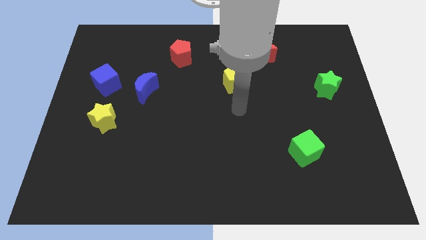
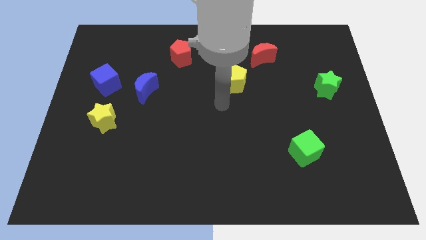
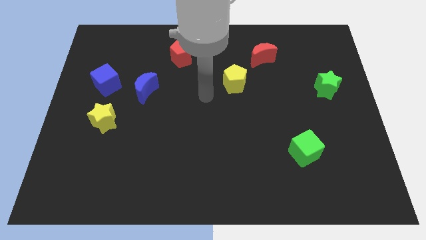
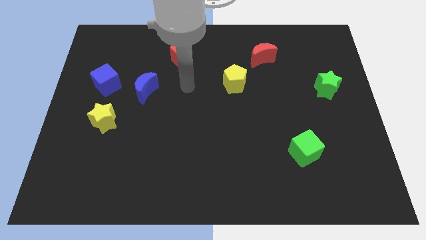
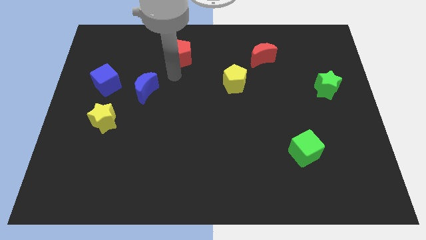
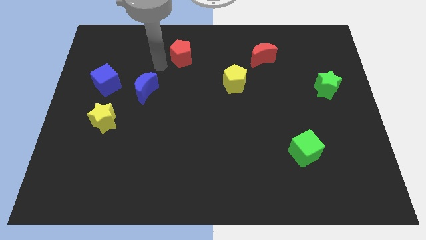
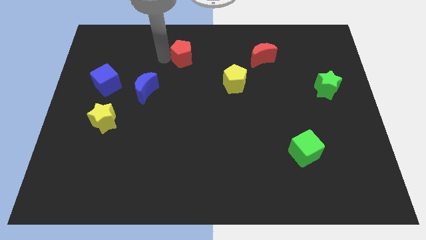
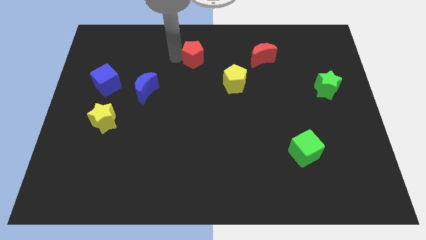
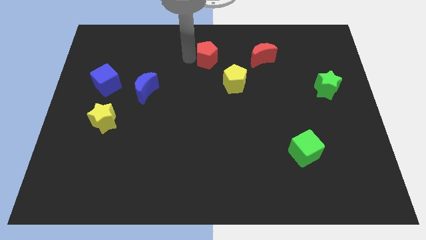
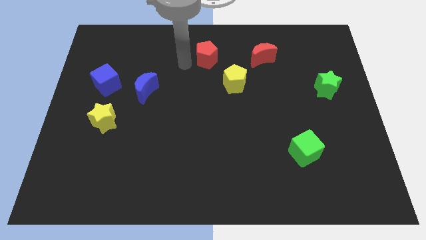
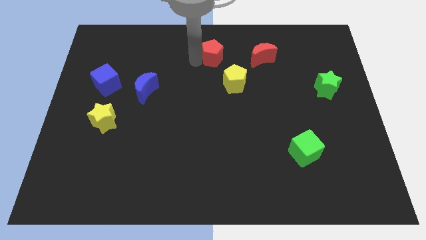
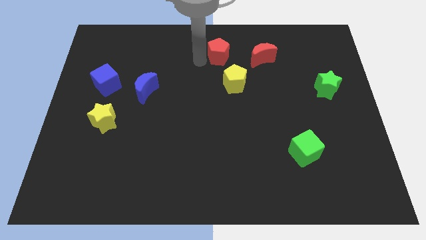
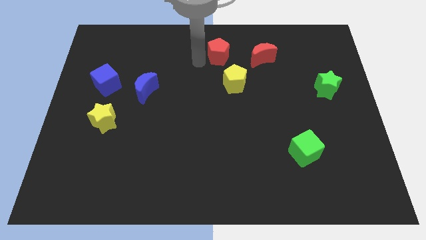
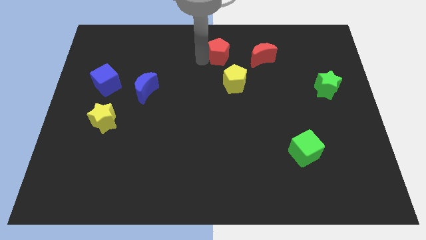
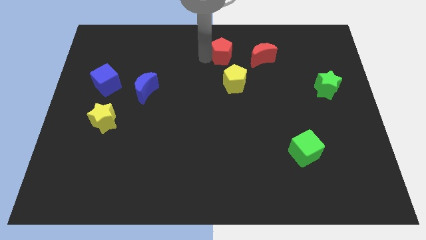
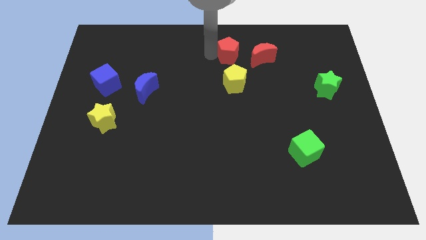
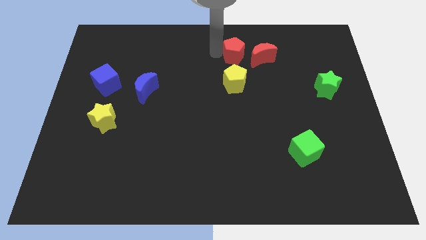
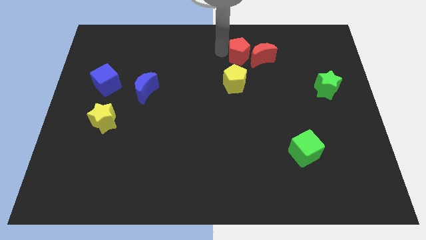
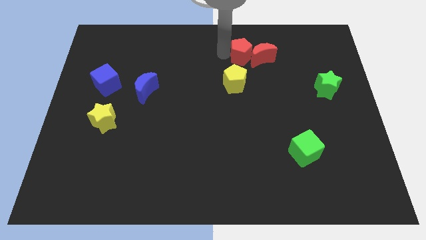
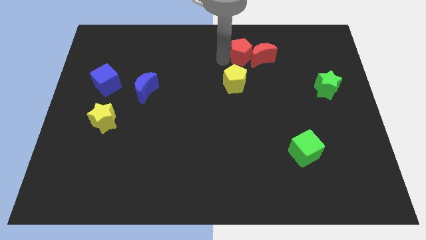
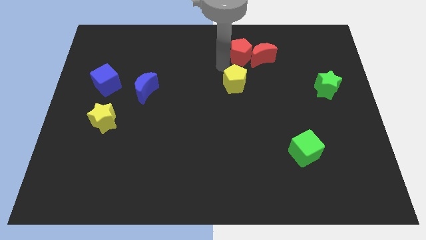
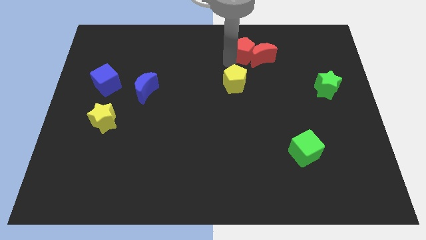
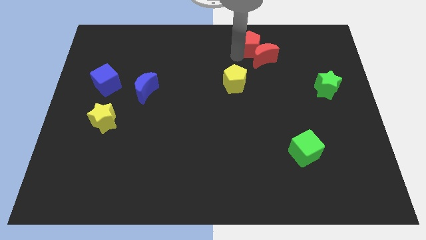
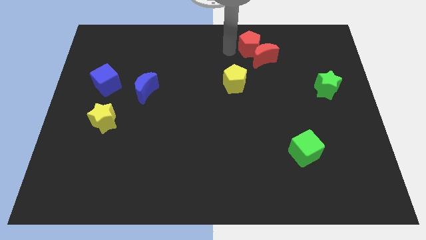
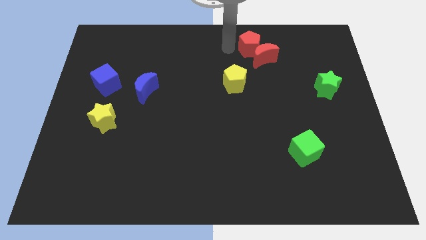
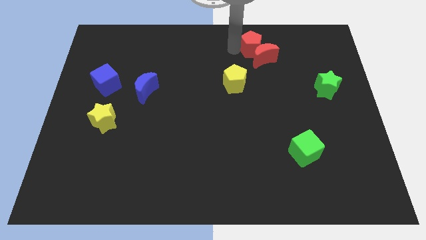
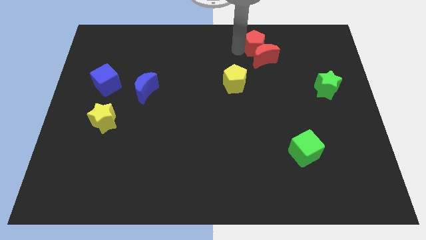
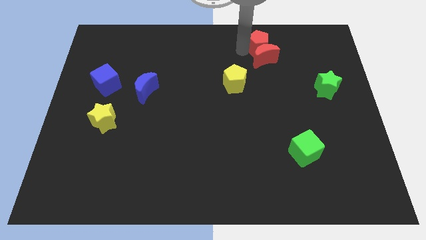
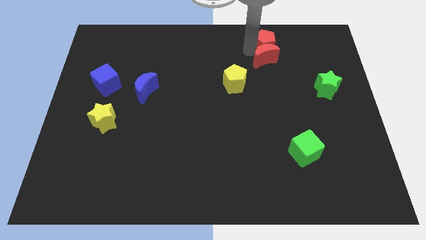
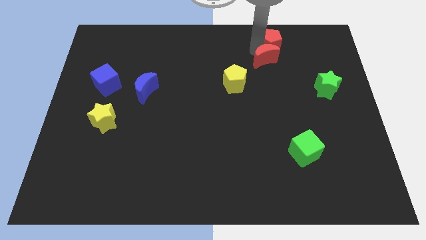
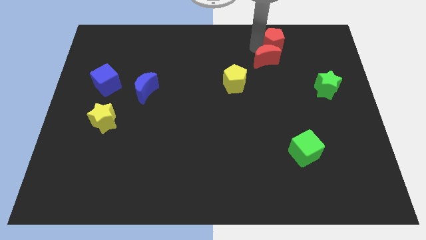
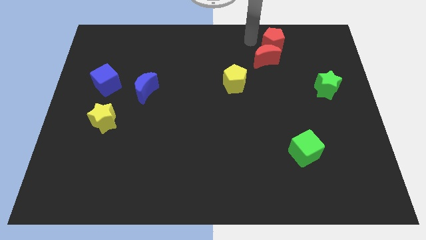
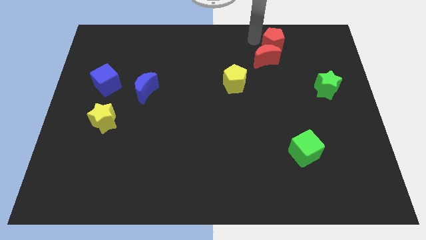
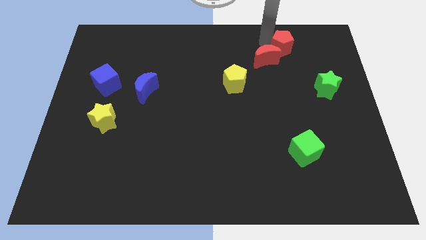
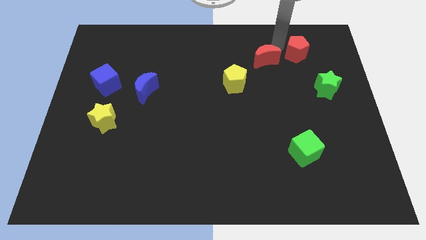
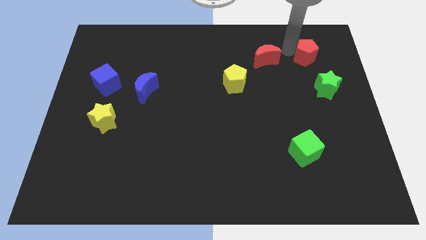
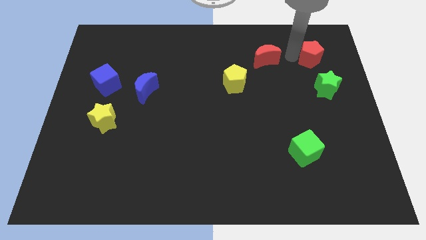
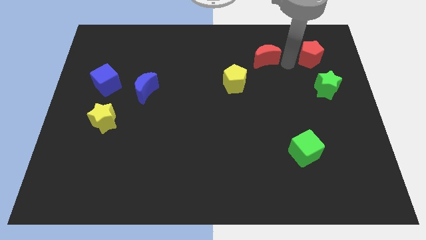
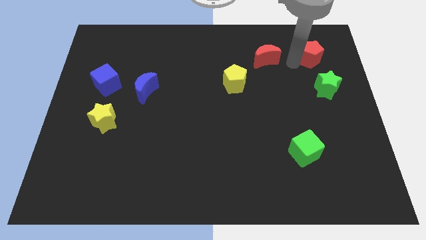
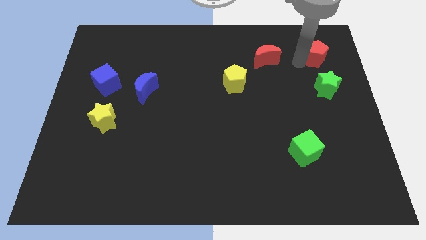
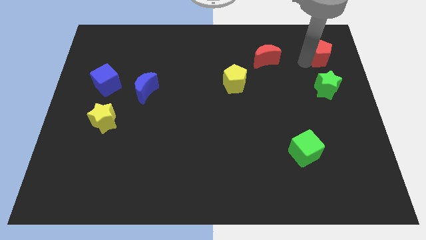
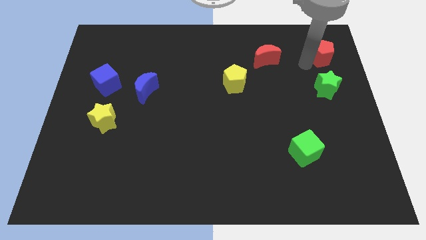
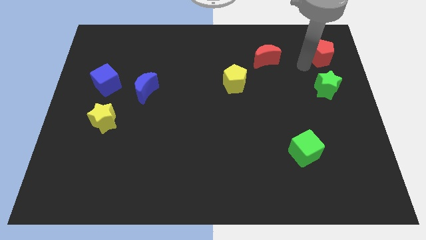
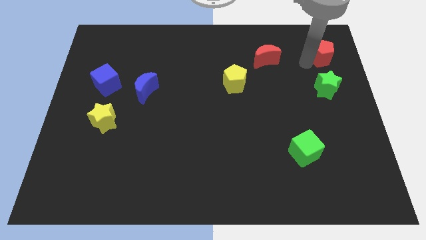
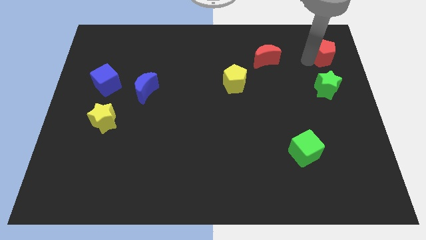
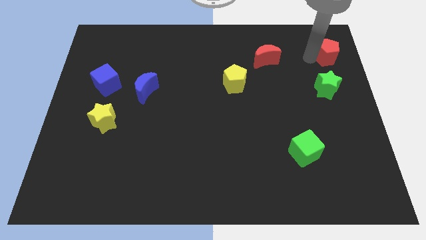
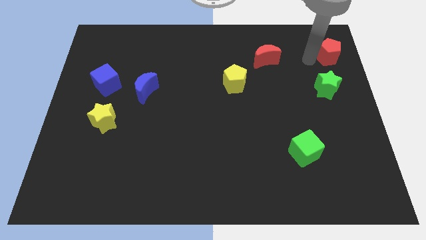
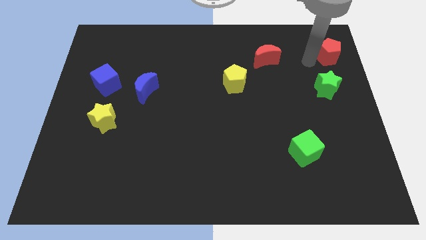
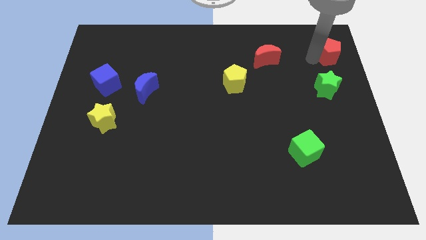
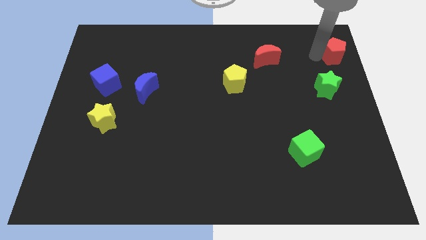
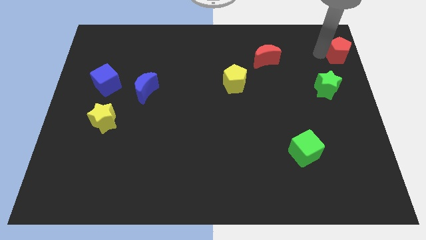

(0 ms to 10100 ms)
push the red pentagon to the upper right corner

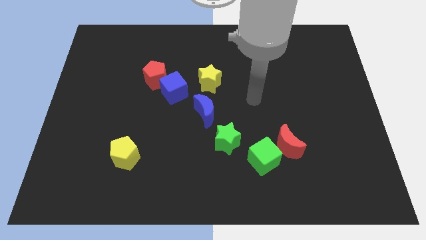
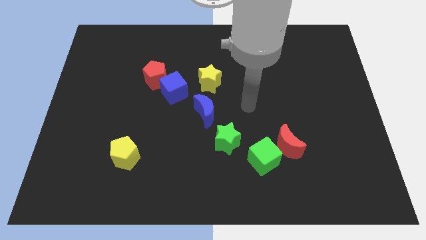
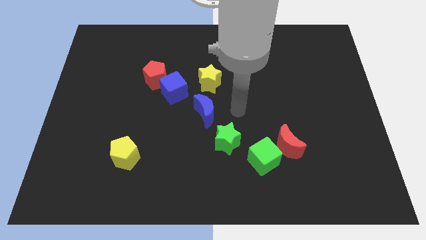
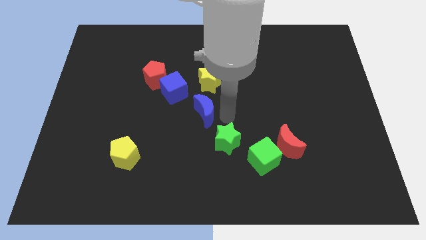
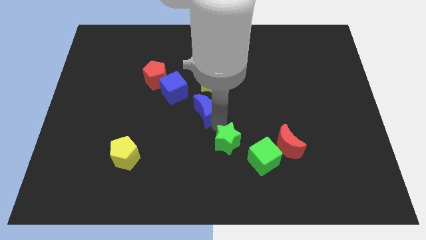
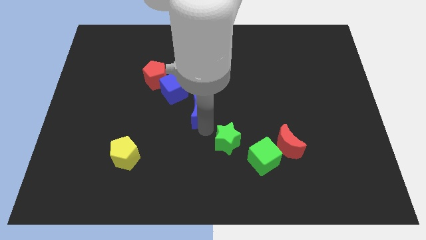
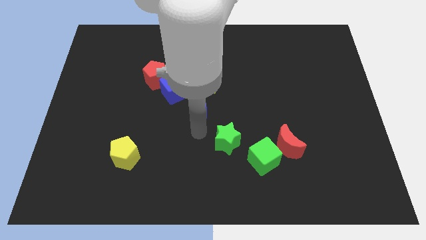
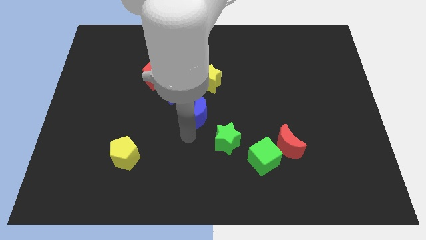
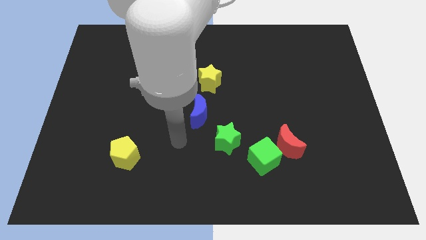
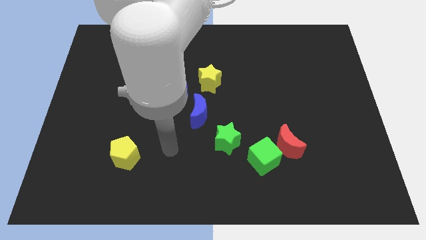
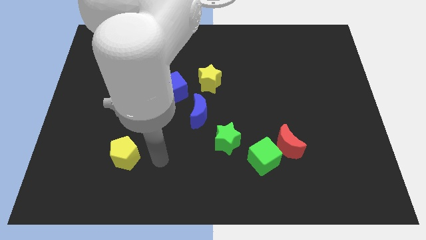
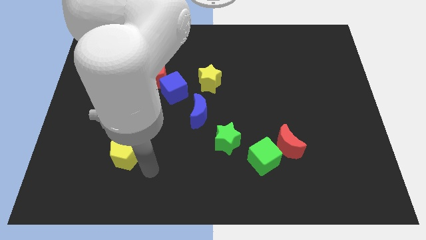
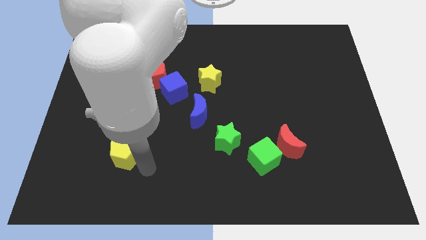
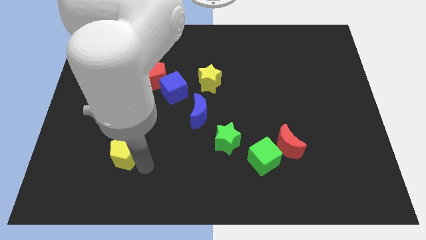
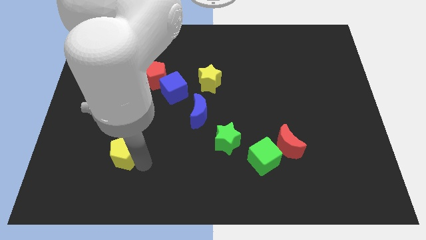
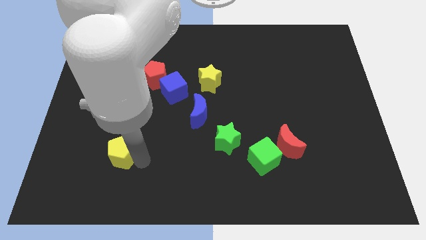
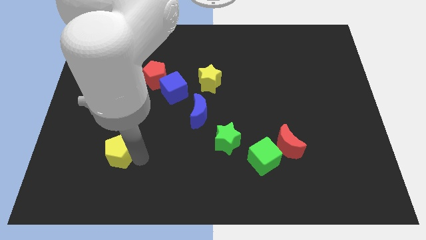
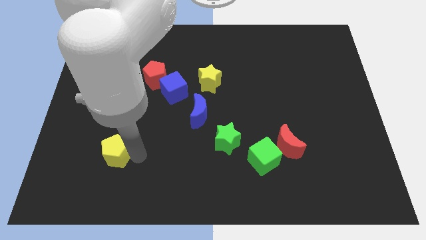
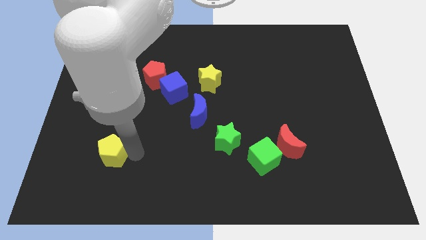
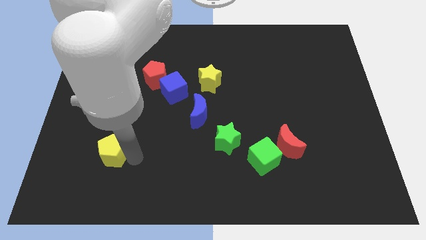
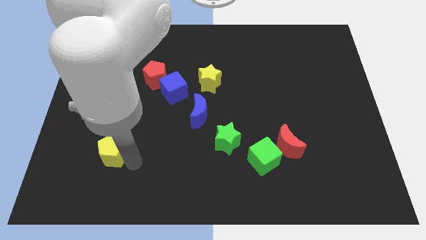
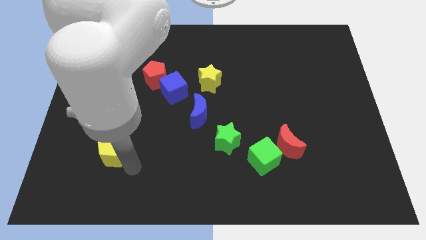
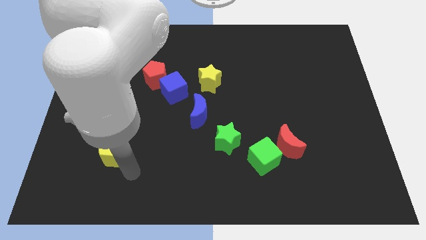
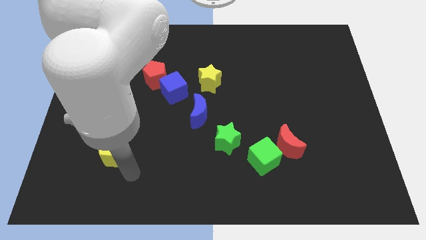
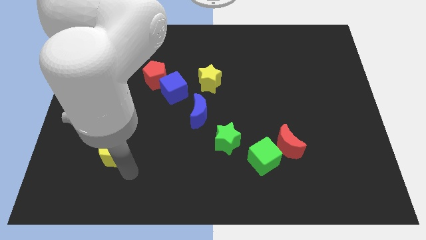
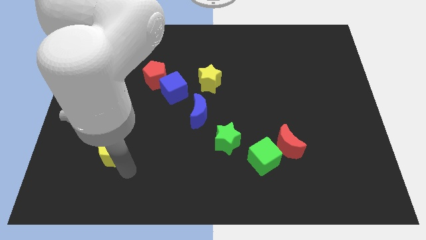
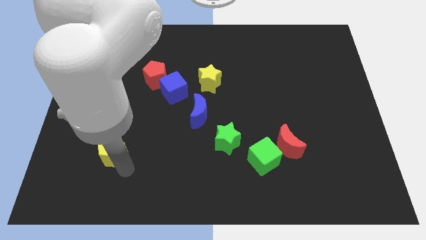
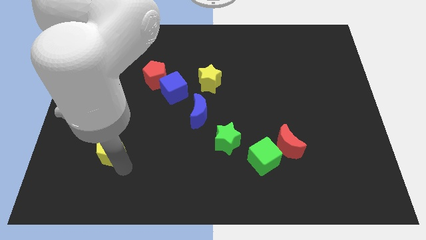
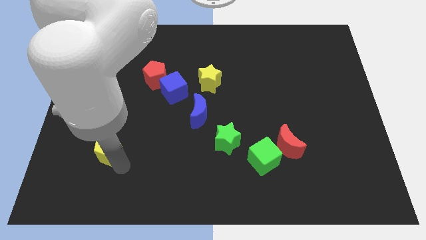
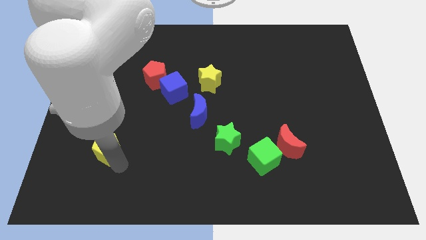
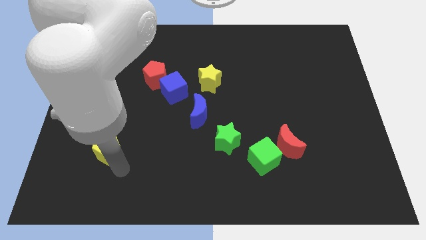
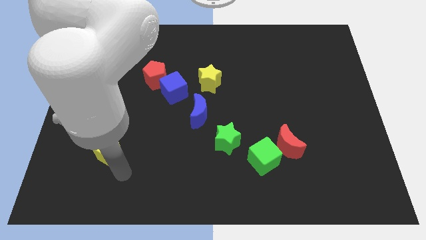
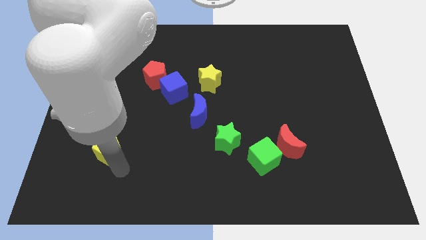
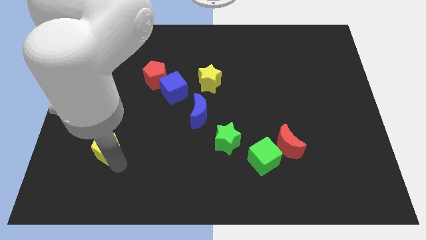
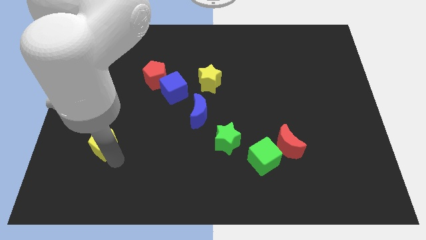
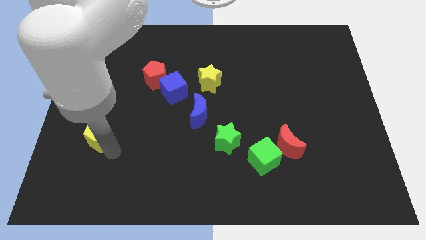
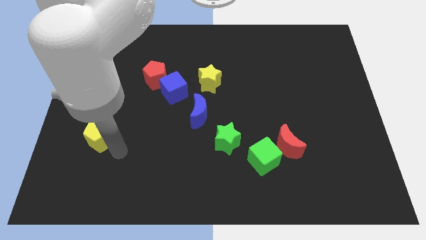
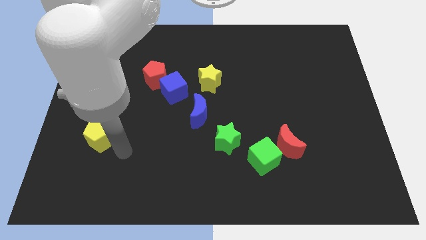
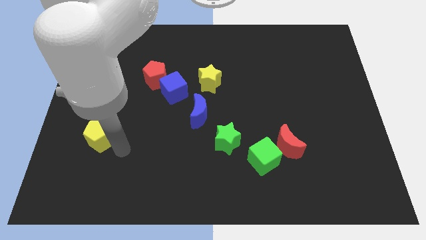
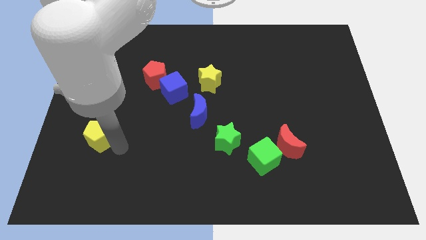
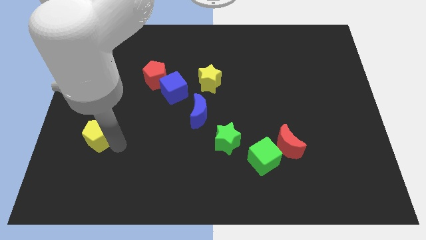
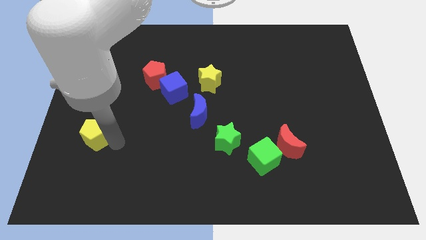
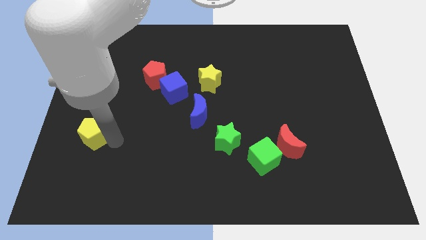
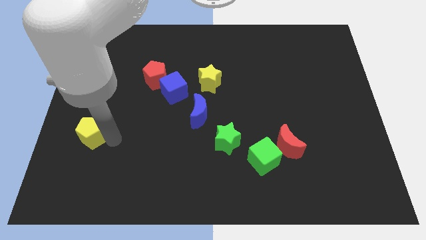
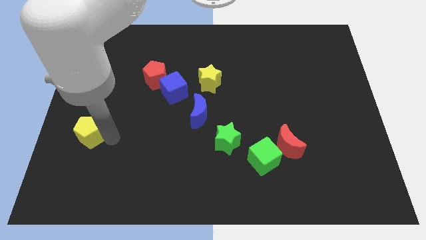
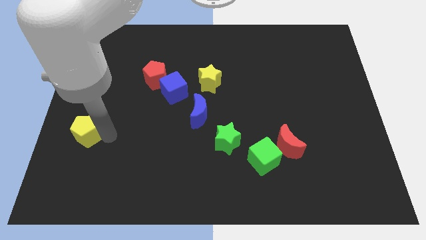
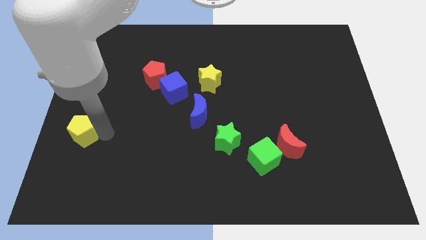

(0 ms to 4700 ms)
slide the yellow pentagon to the left side
